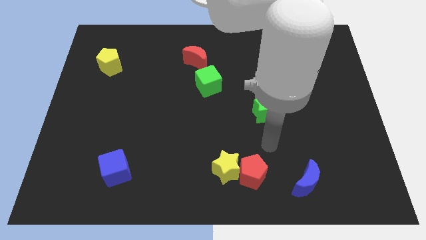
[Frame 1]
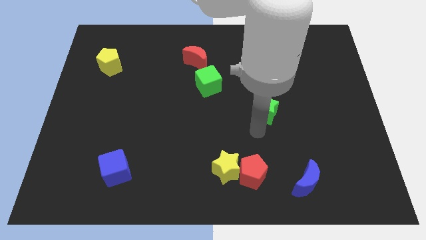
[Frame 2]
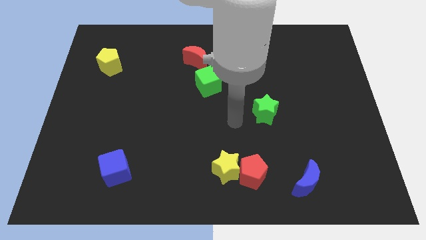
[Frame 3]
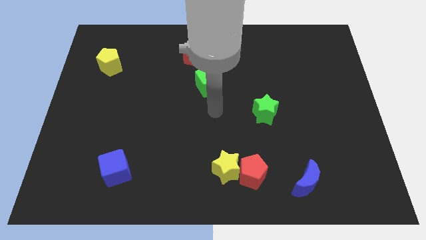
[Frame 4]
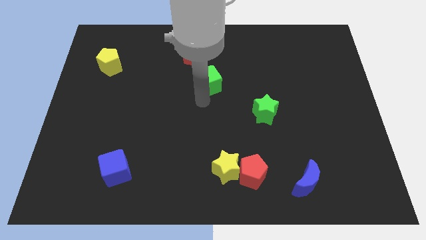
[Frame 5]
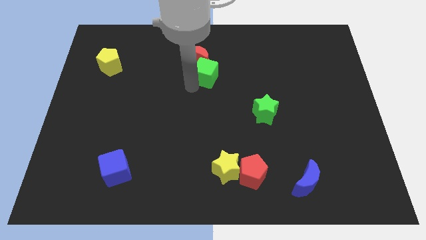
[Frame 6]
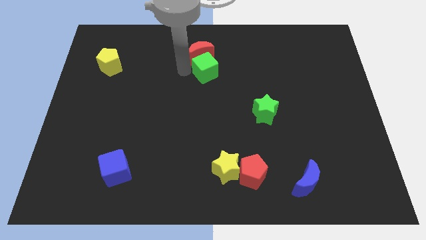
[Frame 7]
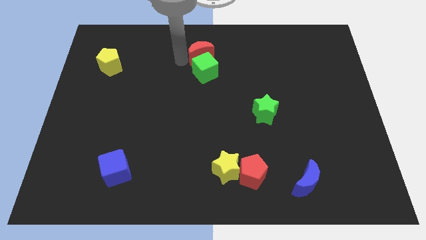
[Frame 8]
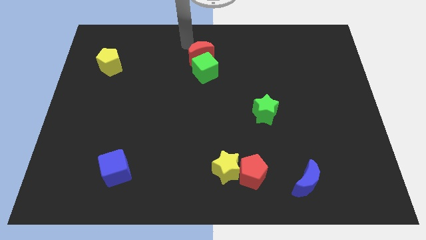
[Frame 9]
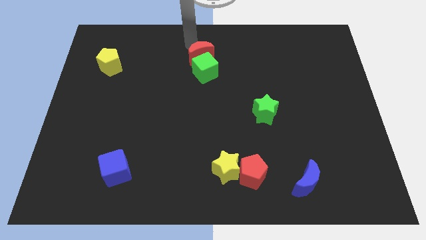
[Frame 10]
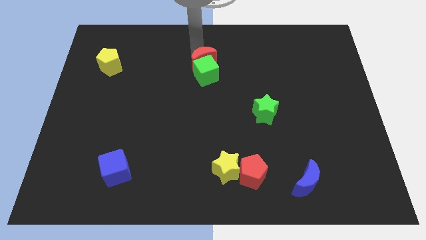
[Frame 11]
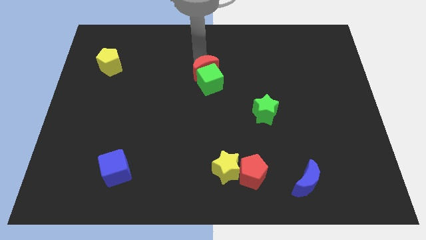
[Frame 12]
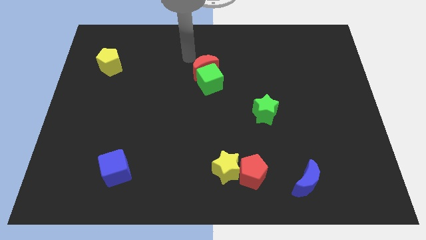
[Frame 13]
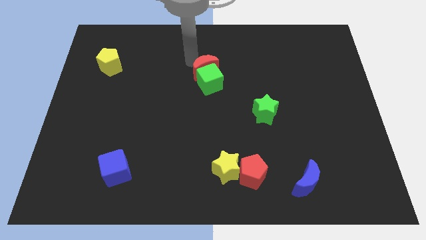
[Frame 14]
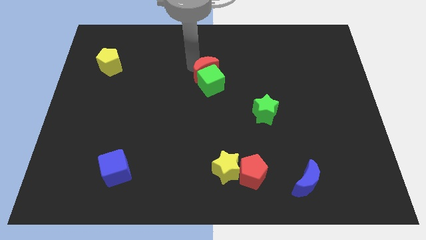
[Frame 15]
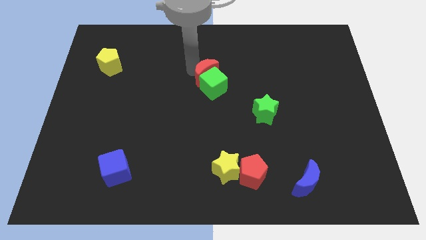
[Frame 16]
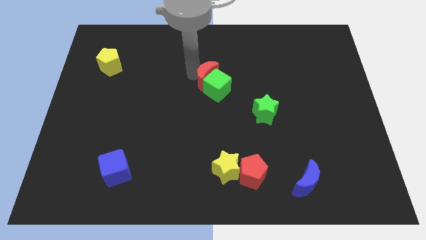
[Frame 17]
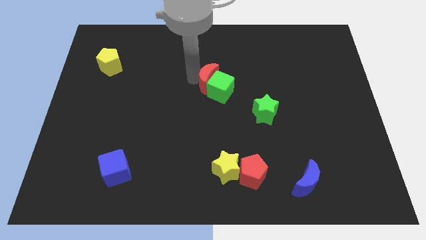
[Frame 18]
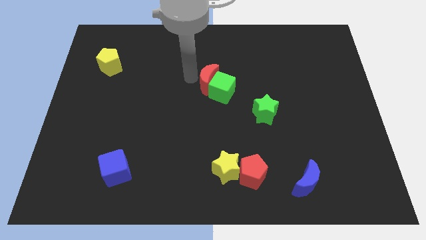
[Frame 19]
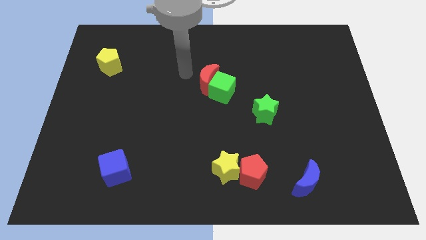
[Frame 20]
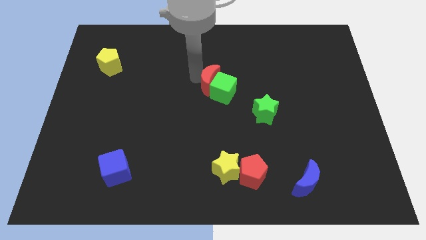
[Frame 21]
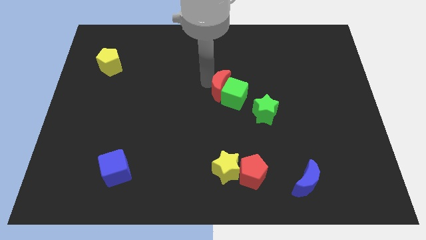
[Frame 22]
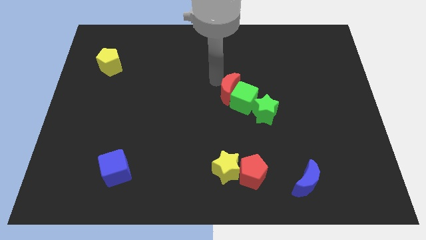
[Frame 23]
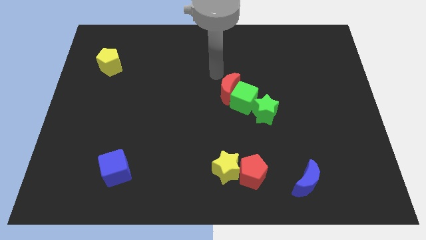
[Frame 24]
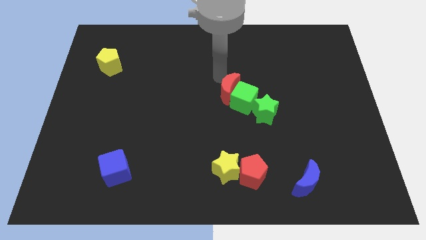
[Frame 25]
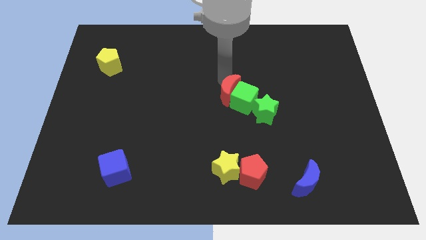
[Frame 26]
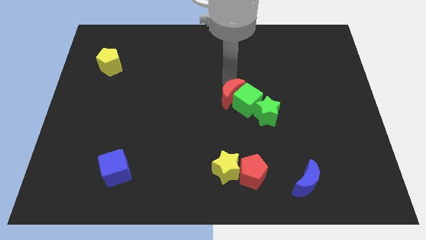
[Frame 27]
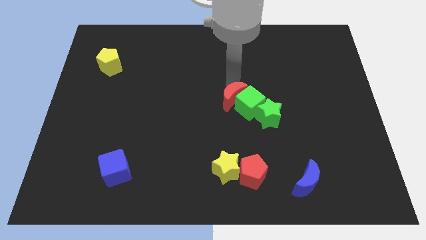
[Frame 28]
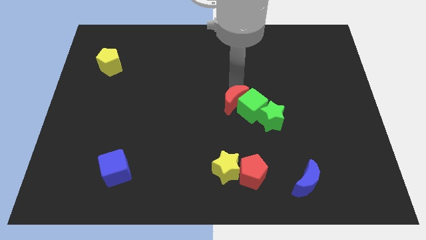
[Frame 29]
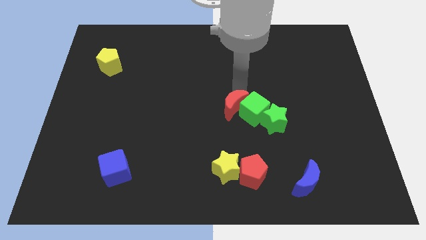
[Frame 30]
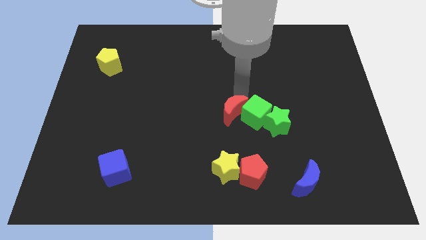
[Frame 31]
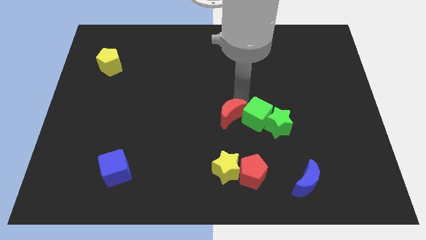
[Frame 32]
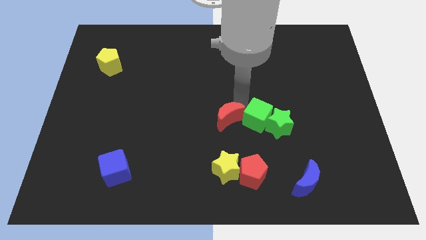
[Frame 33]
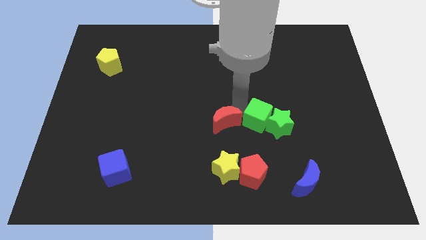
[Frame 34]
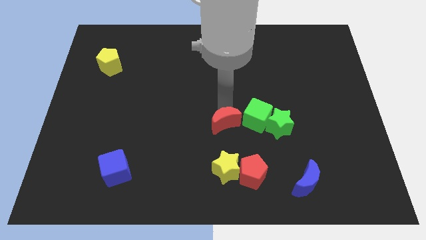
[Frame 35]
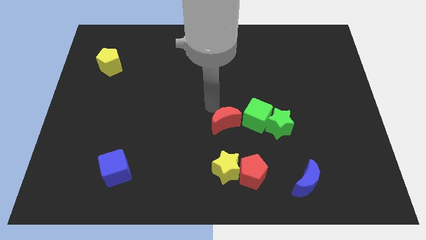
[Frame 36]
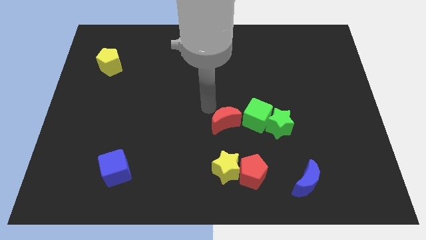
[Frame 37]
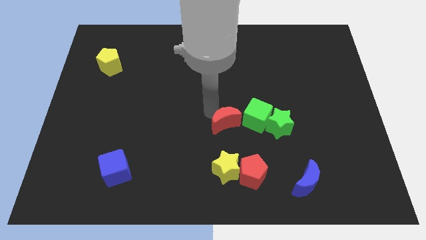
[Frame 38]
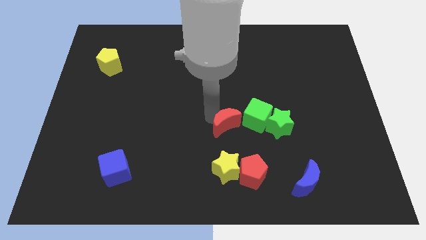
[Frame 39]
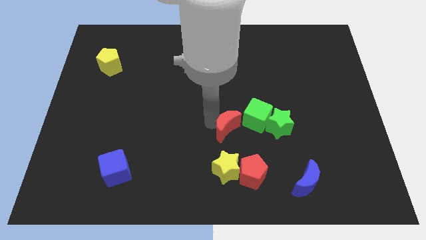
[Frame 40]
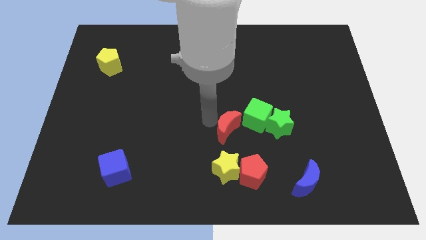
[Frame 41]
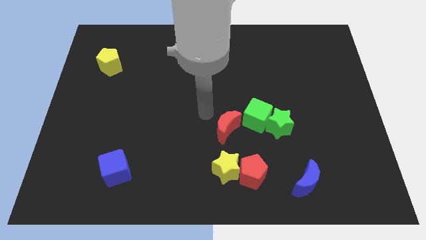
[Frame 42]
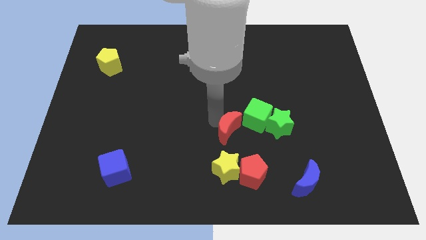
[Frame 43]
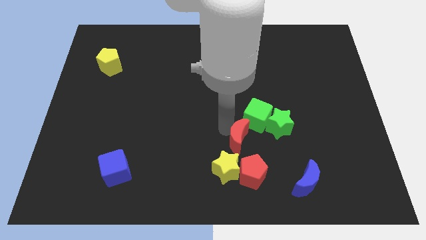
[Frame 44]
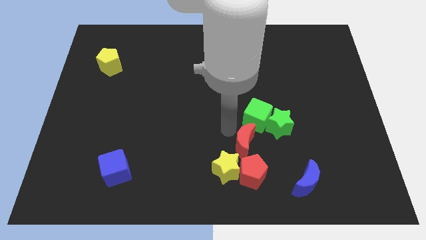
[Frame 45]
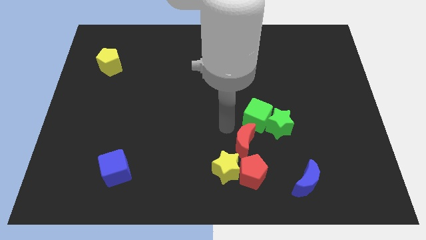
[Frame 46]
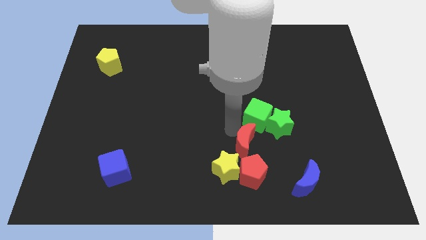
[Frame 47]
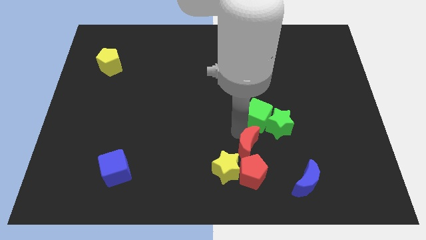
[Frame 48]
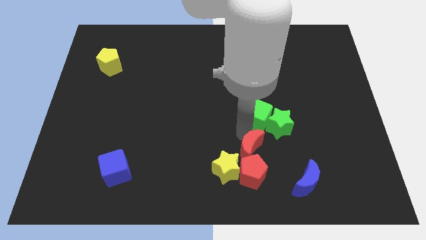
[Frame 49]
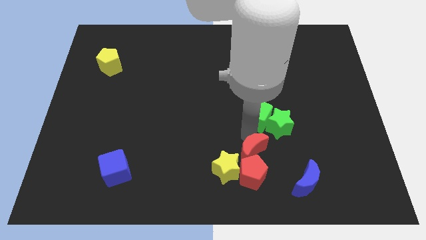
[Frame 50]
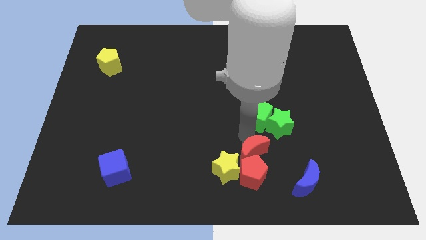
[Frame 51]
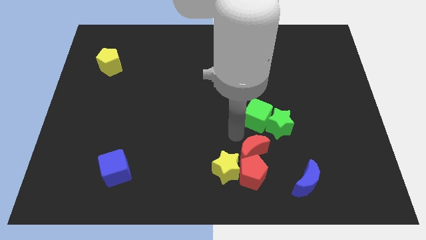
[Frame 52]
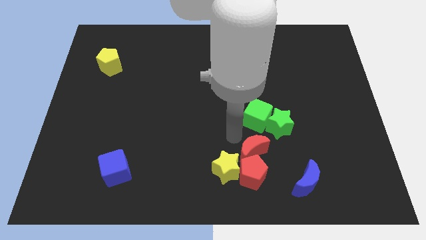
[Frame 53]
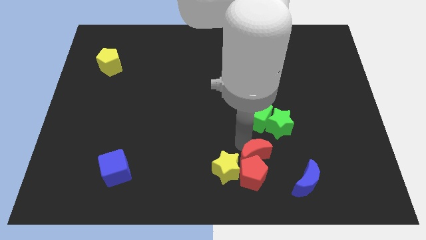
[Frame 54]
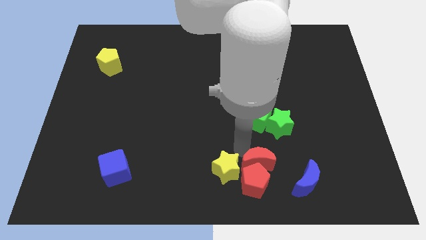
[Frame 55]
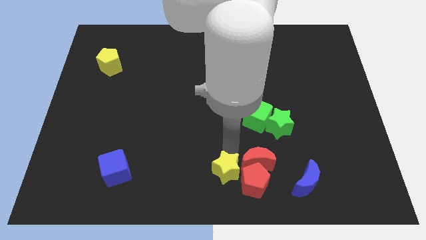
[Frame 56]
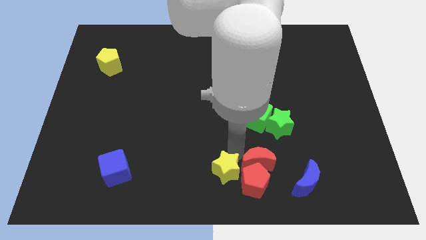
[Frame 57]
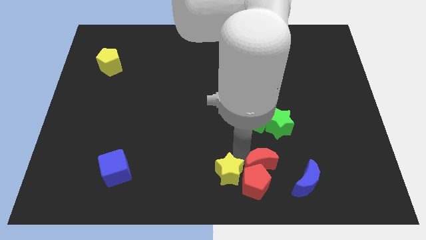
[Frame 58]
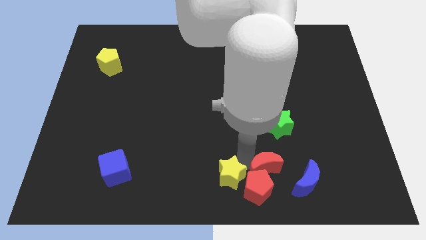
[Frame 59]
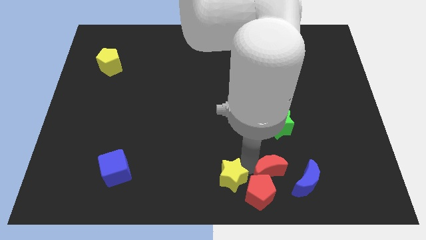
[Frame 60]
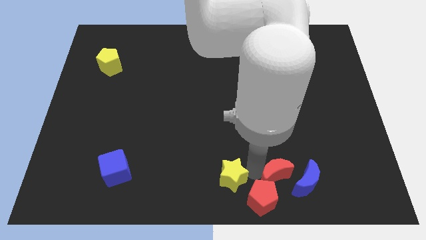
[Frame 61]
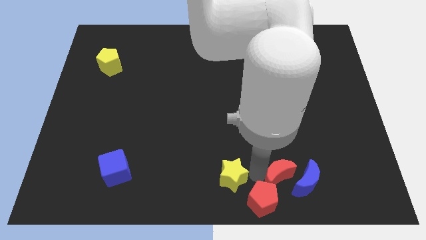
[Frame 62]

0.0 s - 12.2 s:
put the red moon to the blue moon

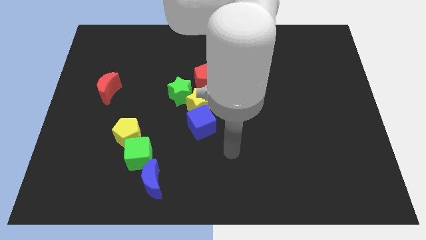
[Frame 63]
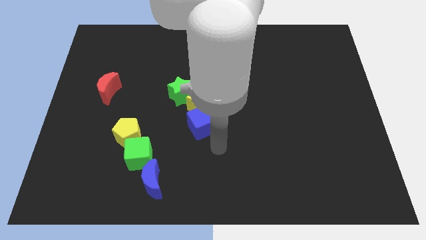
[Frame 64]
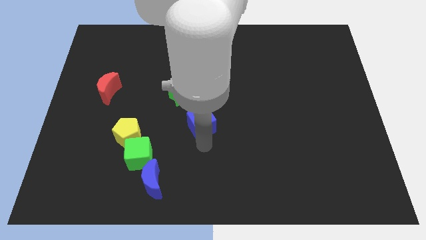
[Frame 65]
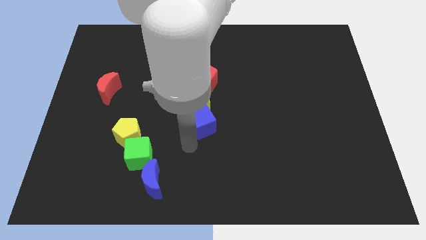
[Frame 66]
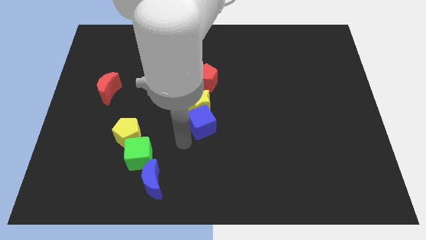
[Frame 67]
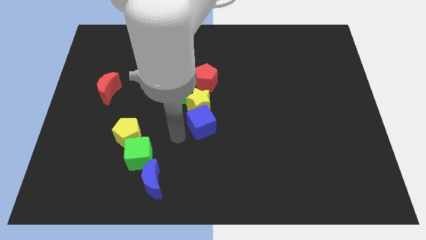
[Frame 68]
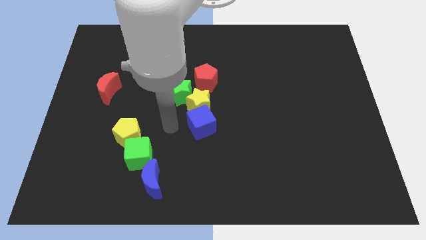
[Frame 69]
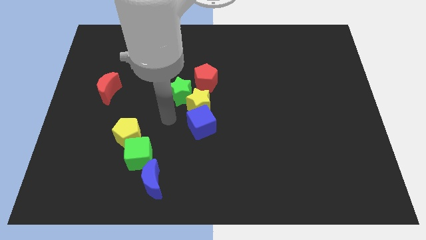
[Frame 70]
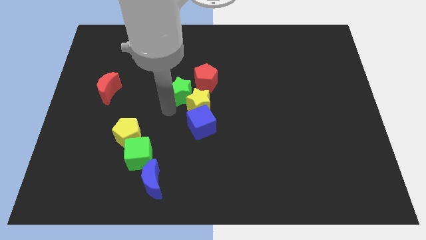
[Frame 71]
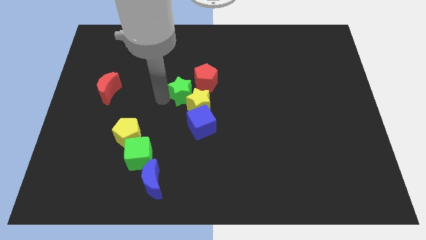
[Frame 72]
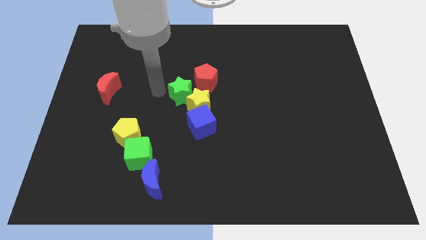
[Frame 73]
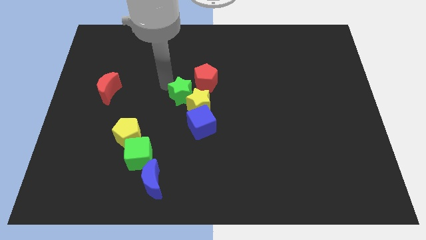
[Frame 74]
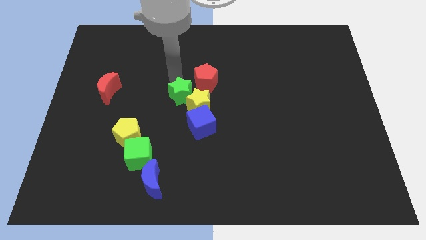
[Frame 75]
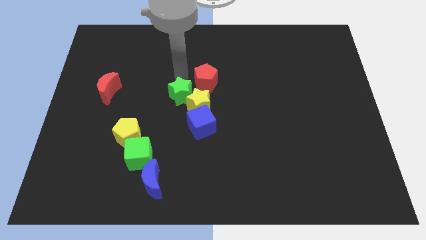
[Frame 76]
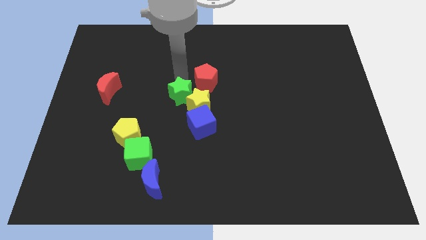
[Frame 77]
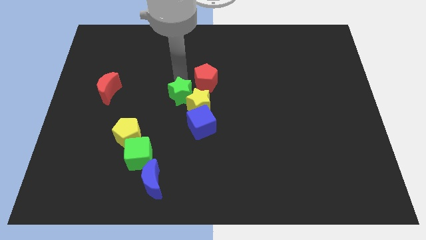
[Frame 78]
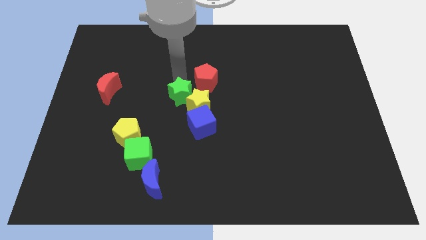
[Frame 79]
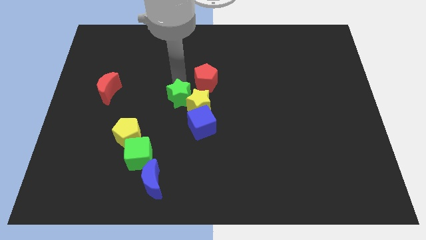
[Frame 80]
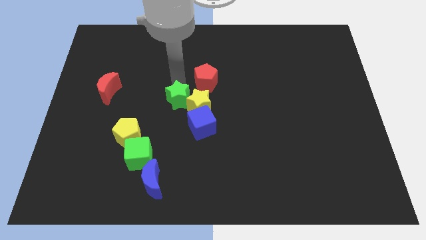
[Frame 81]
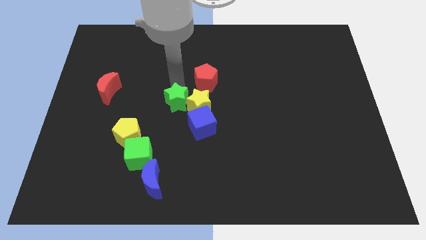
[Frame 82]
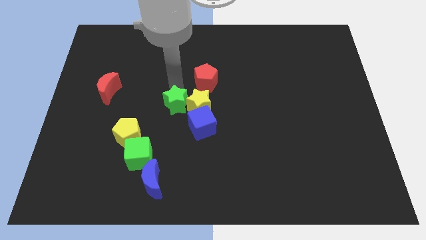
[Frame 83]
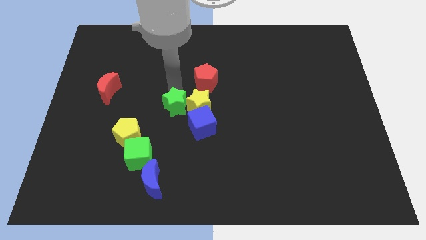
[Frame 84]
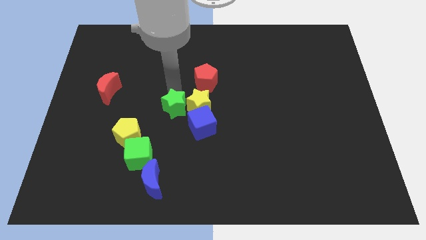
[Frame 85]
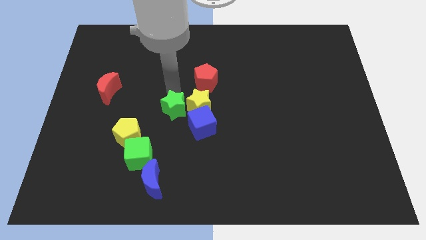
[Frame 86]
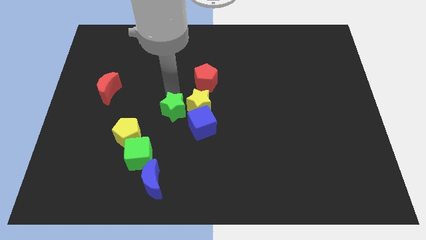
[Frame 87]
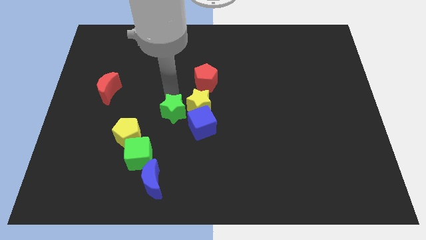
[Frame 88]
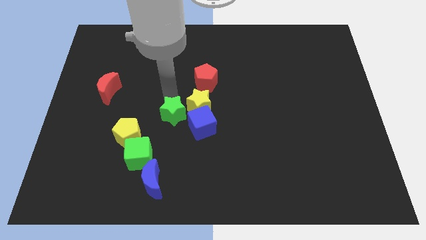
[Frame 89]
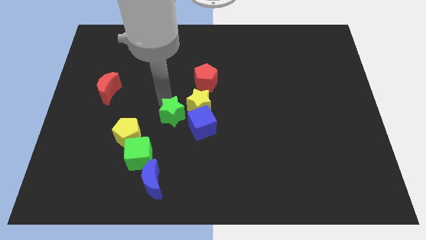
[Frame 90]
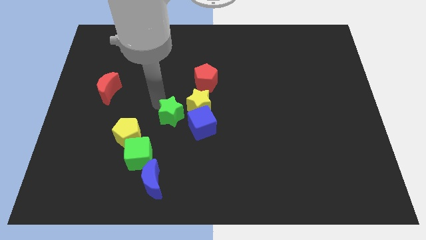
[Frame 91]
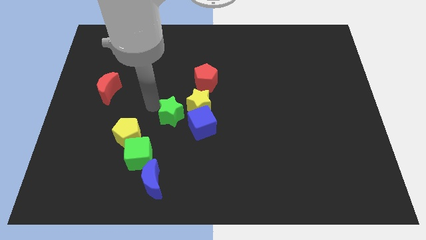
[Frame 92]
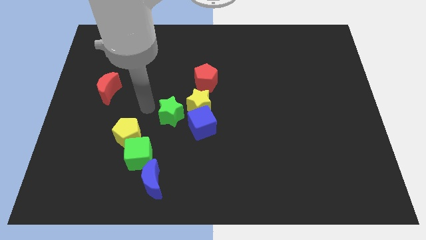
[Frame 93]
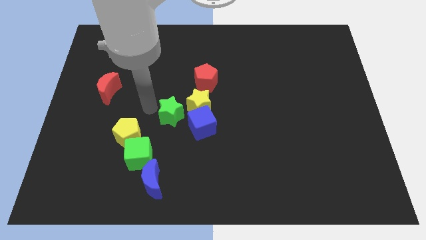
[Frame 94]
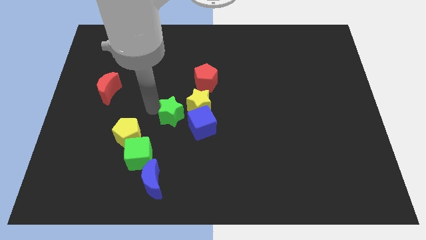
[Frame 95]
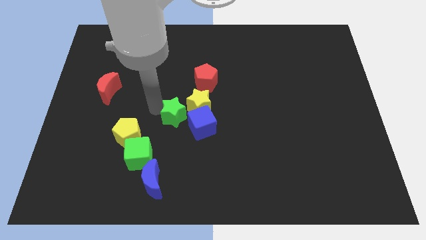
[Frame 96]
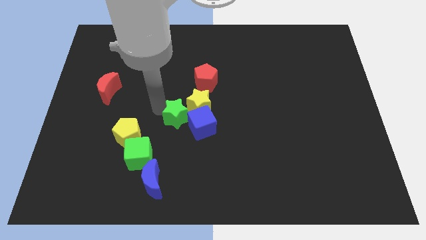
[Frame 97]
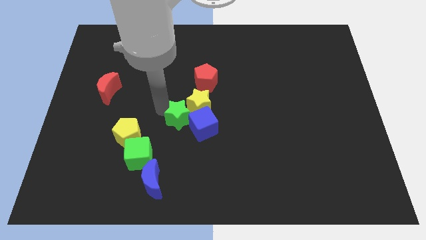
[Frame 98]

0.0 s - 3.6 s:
move the green star next to the blue cube
